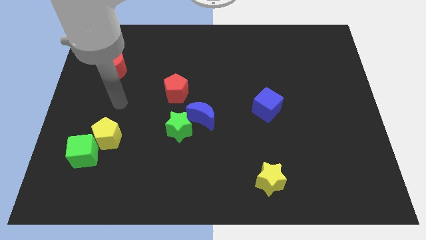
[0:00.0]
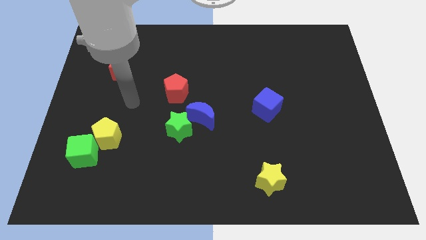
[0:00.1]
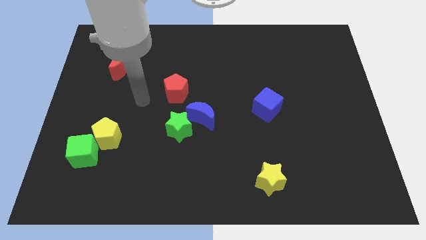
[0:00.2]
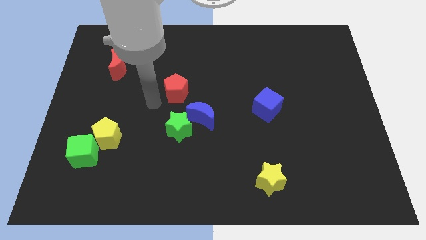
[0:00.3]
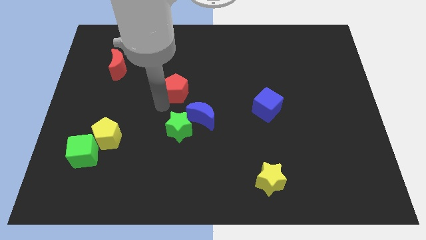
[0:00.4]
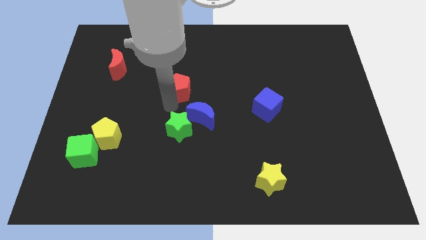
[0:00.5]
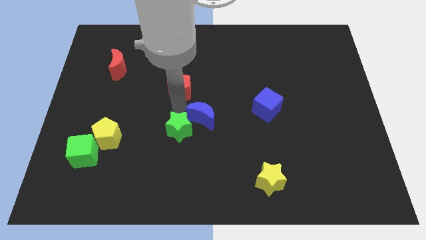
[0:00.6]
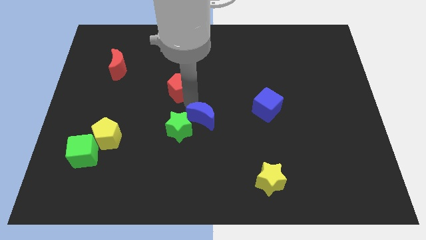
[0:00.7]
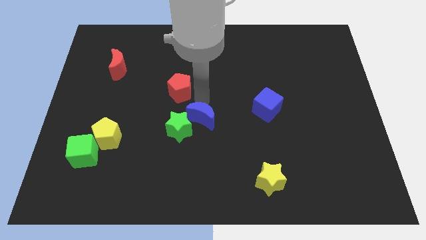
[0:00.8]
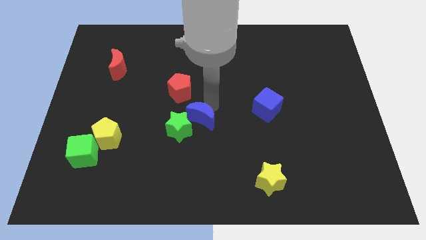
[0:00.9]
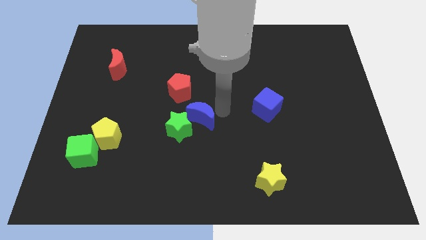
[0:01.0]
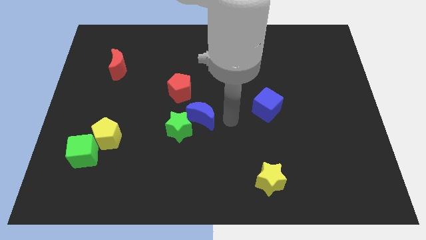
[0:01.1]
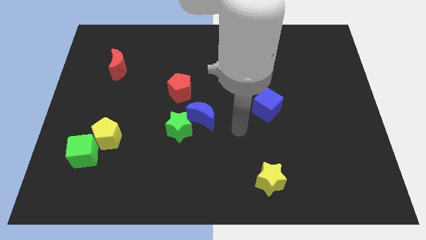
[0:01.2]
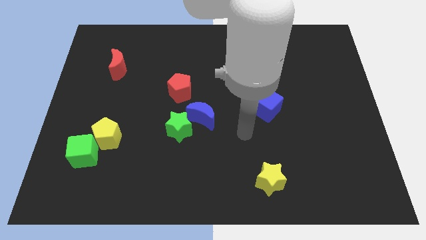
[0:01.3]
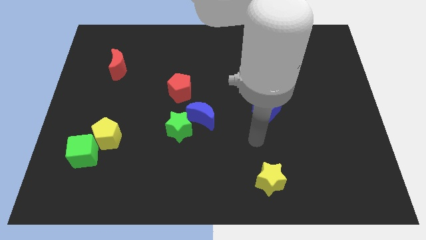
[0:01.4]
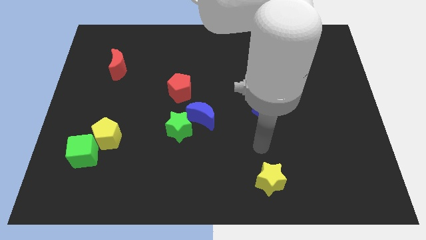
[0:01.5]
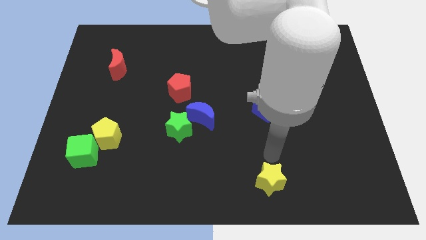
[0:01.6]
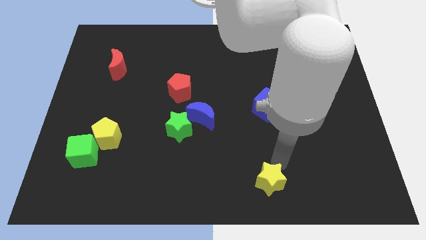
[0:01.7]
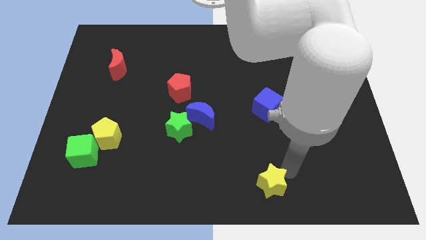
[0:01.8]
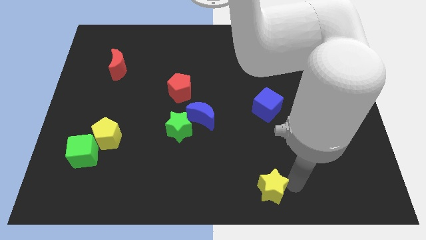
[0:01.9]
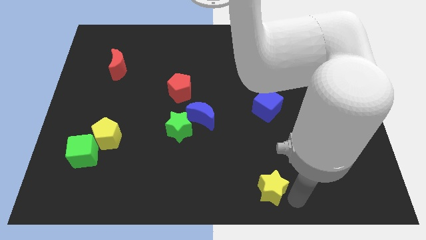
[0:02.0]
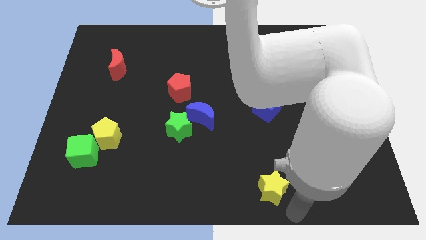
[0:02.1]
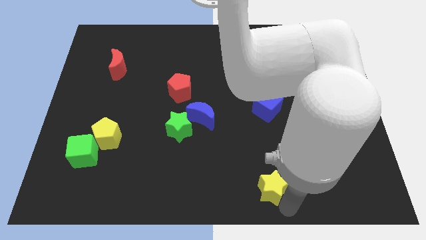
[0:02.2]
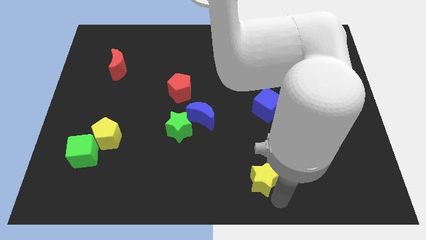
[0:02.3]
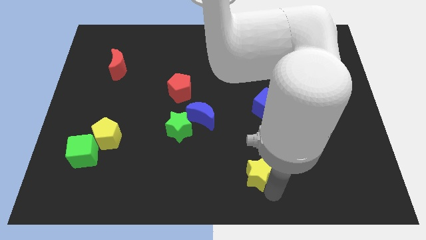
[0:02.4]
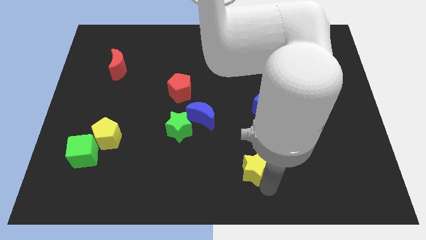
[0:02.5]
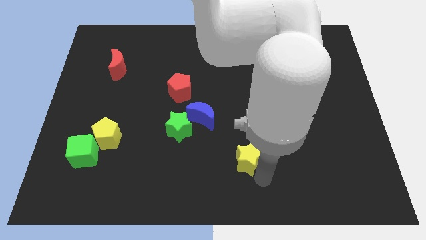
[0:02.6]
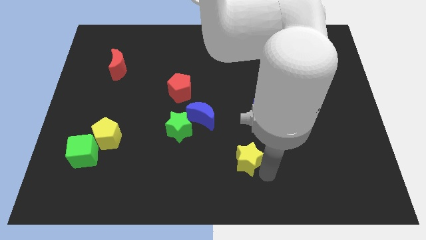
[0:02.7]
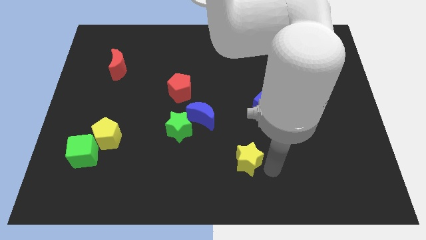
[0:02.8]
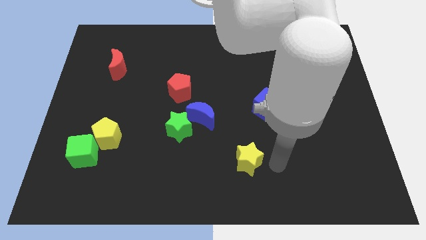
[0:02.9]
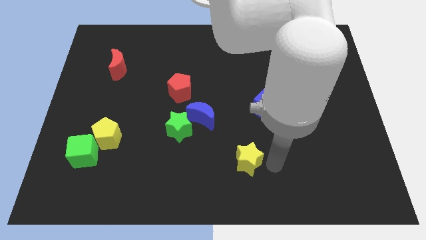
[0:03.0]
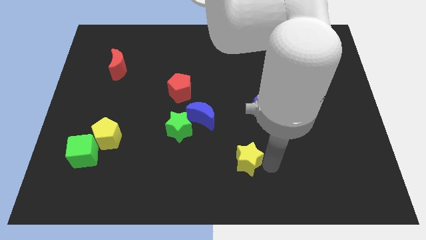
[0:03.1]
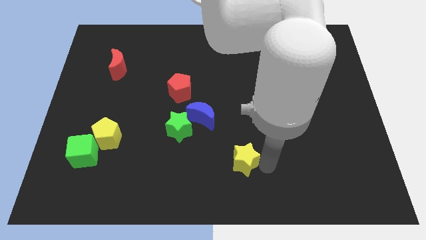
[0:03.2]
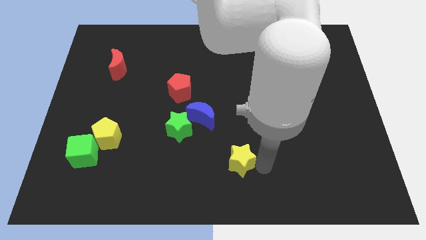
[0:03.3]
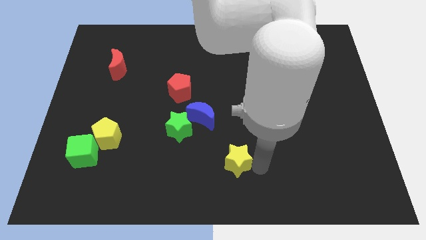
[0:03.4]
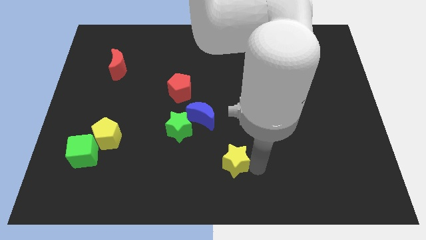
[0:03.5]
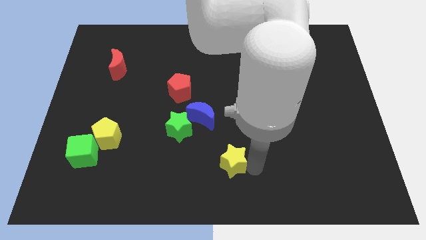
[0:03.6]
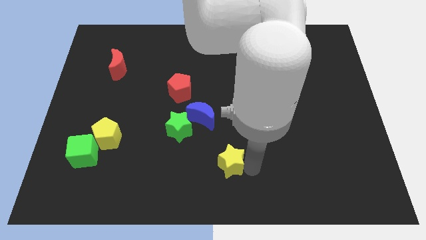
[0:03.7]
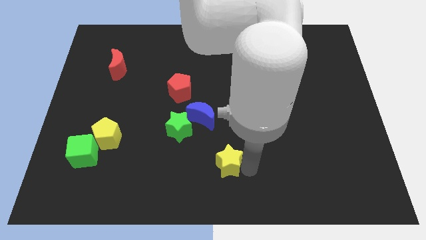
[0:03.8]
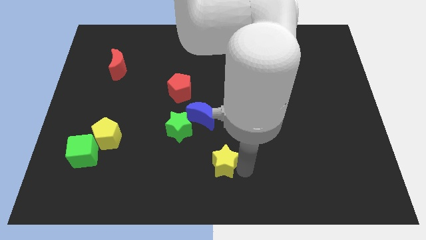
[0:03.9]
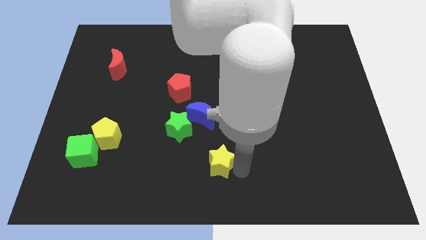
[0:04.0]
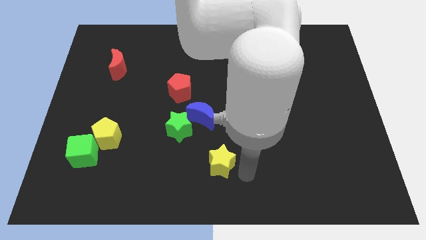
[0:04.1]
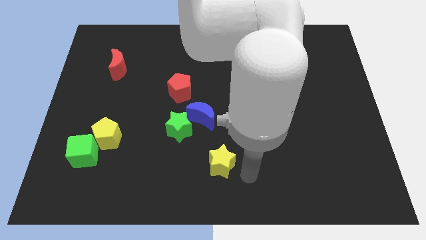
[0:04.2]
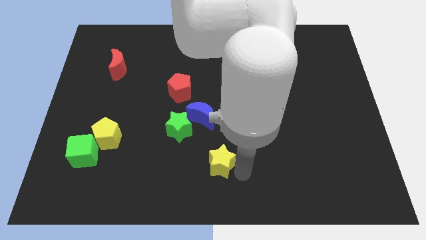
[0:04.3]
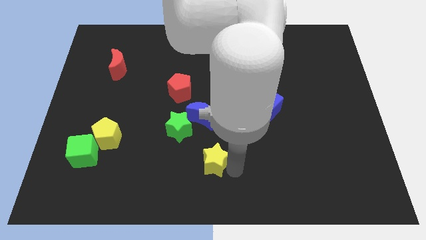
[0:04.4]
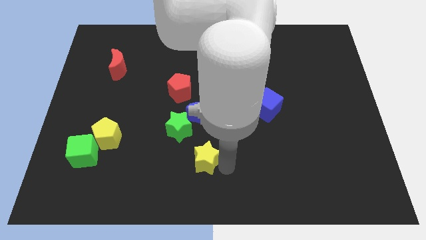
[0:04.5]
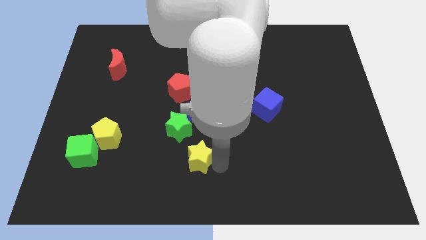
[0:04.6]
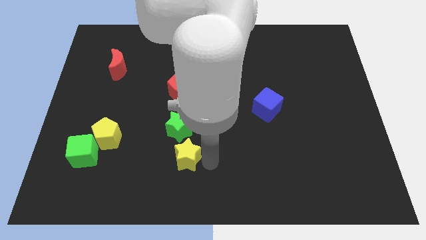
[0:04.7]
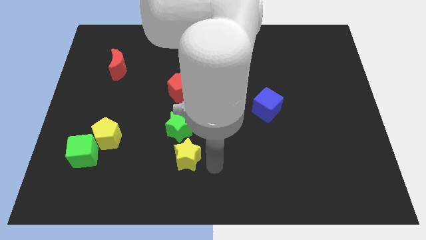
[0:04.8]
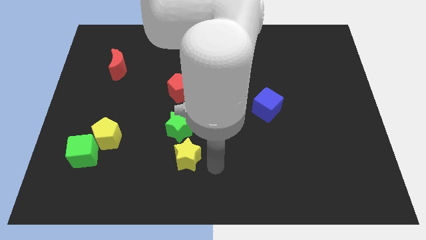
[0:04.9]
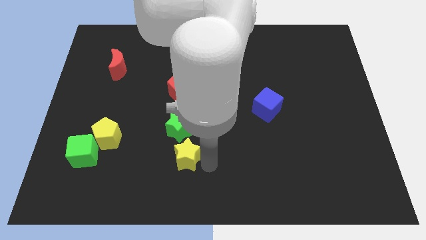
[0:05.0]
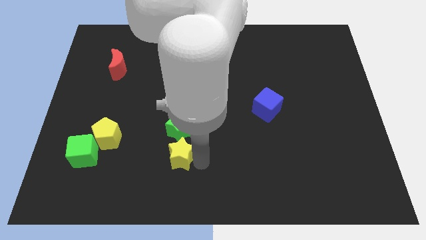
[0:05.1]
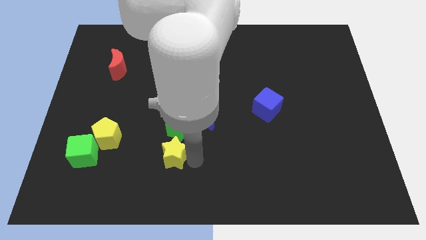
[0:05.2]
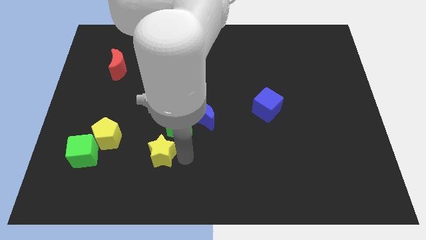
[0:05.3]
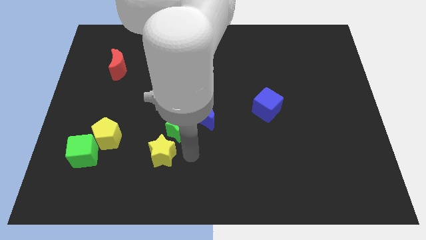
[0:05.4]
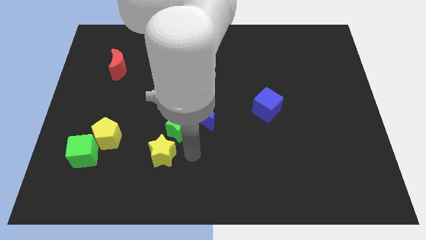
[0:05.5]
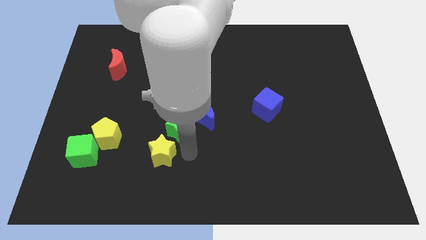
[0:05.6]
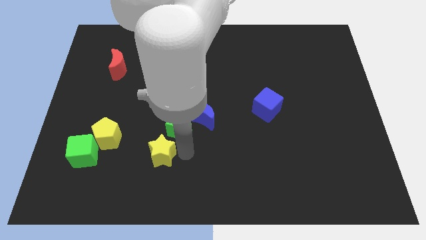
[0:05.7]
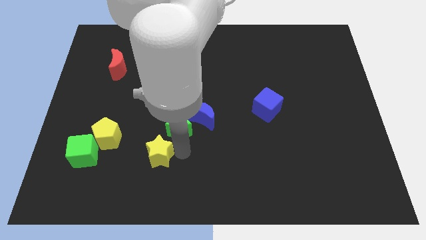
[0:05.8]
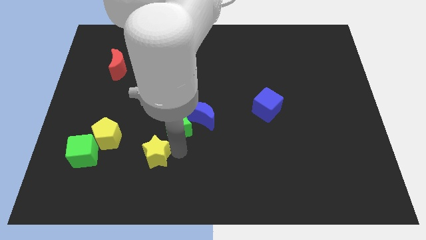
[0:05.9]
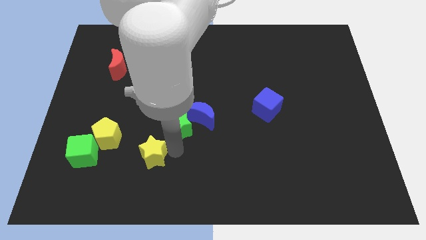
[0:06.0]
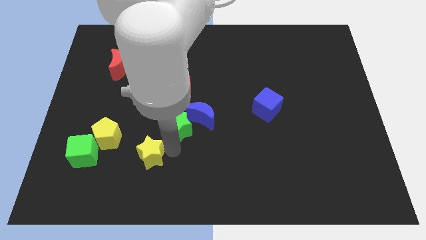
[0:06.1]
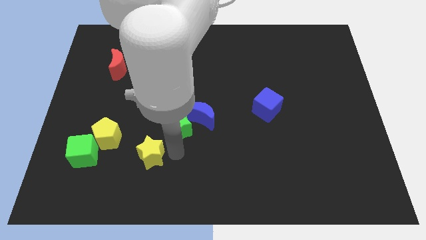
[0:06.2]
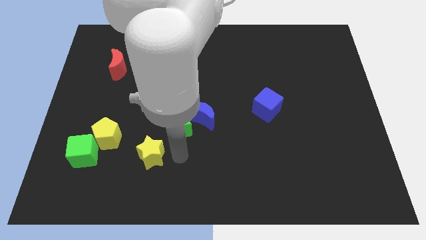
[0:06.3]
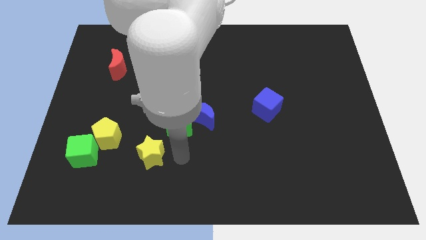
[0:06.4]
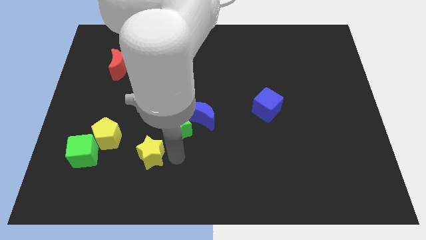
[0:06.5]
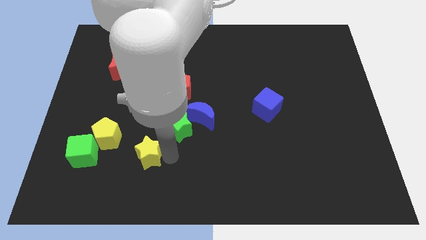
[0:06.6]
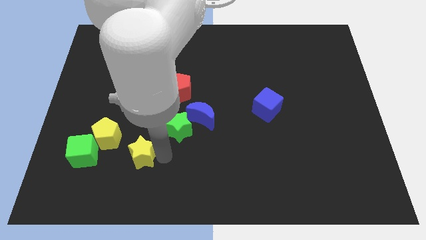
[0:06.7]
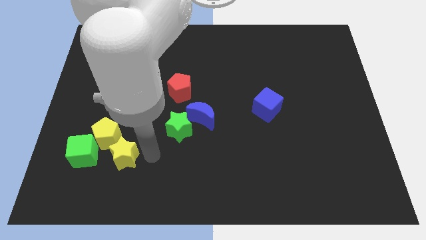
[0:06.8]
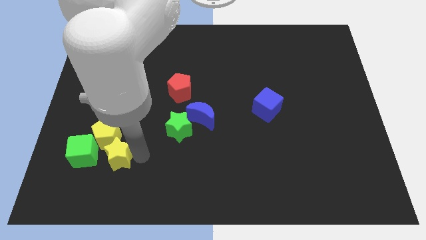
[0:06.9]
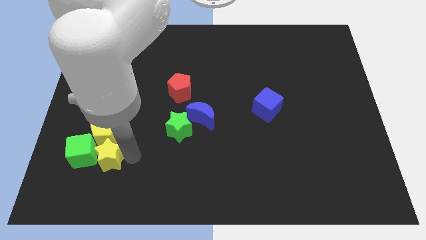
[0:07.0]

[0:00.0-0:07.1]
move the yellow star to the green cube

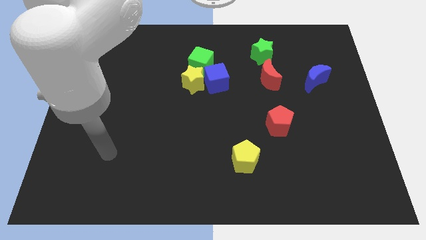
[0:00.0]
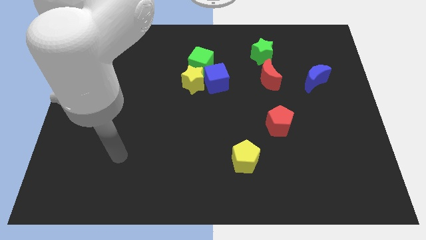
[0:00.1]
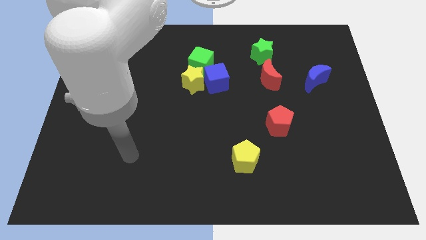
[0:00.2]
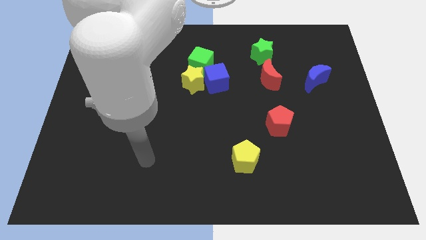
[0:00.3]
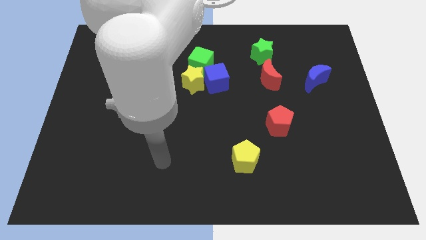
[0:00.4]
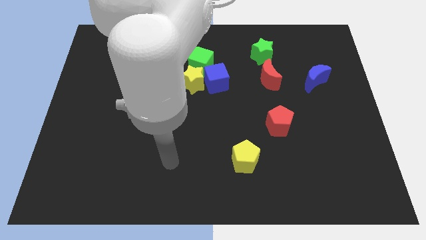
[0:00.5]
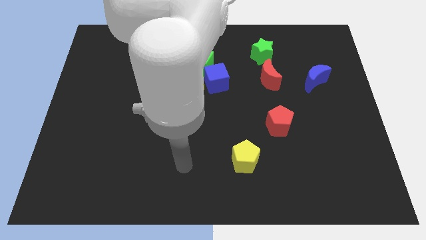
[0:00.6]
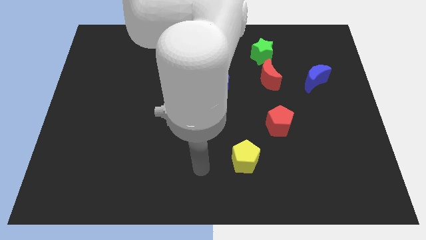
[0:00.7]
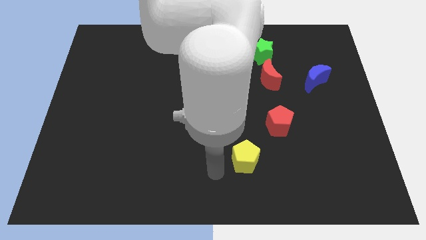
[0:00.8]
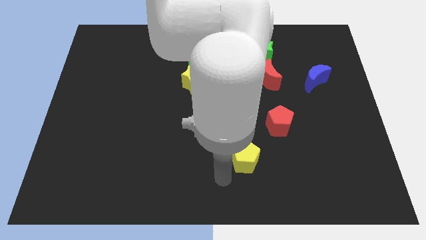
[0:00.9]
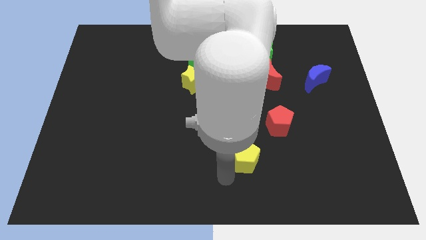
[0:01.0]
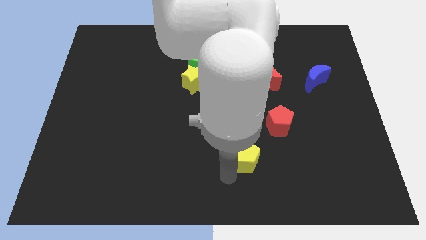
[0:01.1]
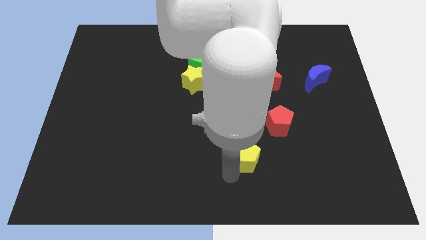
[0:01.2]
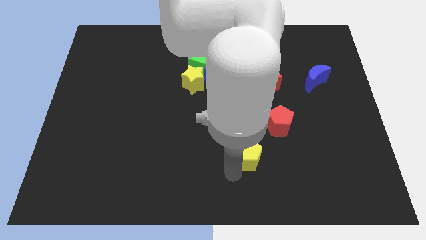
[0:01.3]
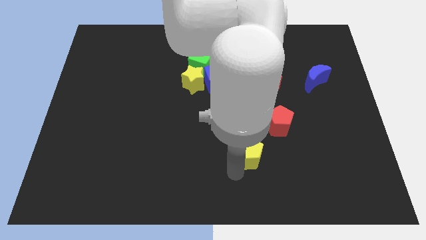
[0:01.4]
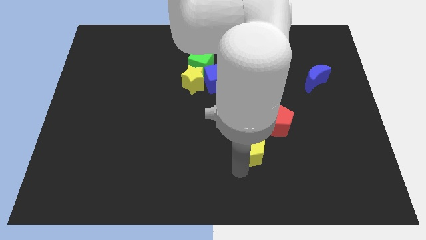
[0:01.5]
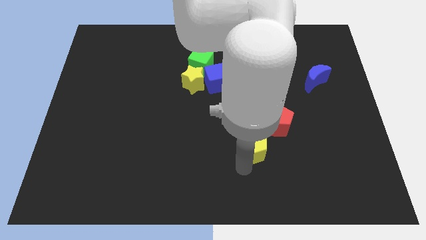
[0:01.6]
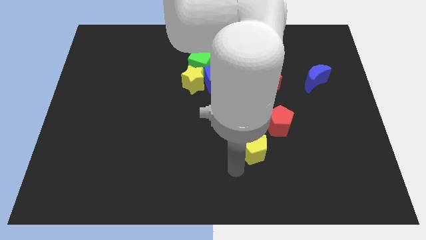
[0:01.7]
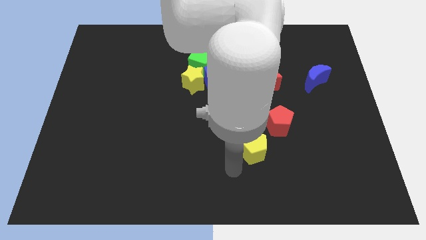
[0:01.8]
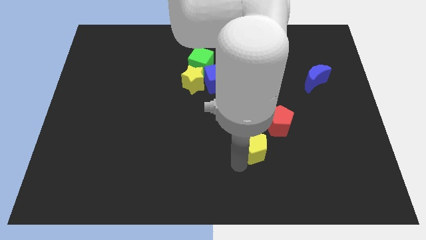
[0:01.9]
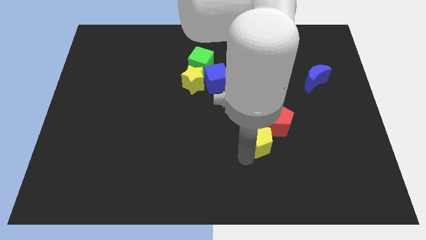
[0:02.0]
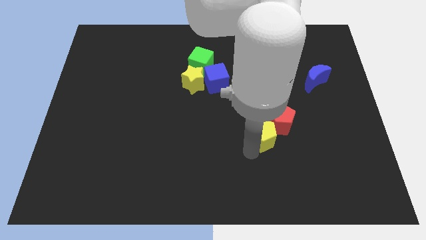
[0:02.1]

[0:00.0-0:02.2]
slide the yellow pentagon close to the red pentagon
